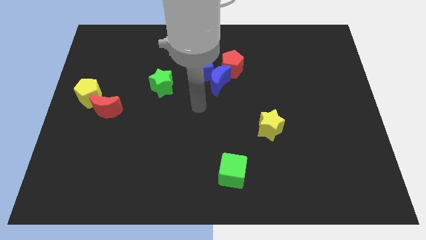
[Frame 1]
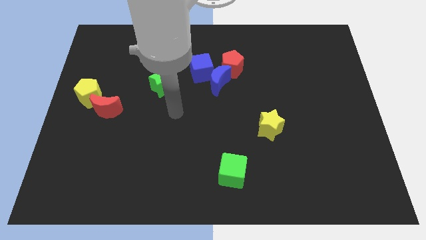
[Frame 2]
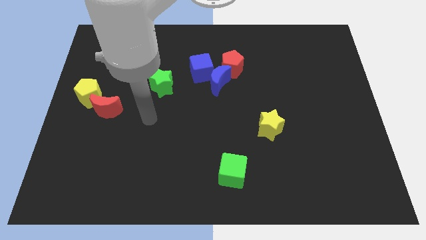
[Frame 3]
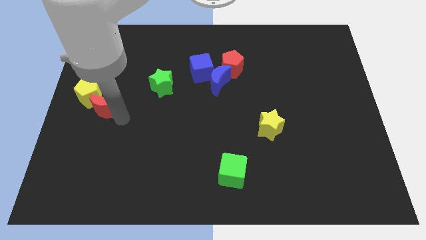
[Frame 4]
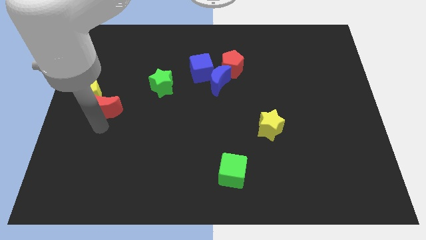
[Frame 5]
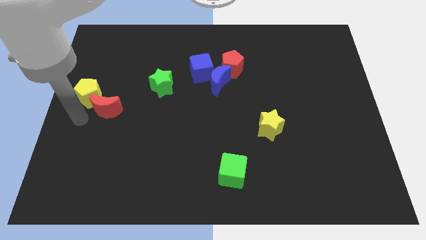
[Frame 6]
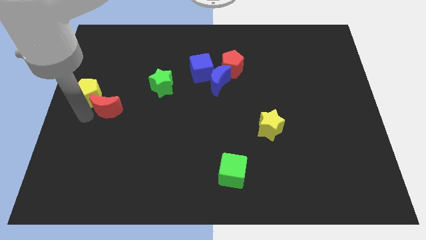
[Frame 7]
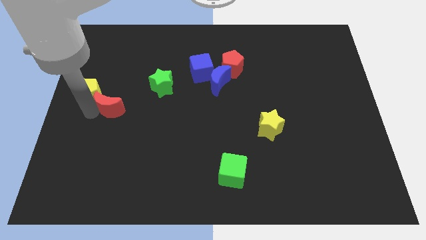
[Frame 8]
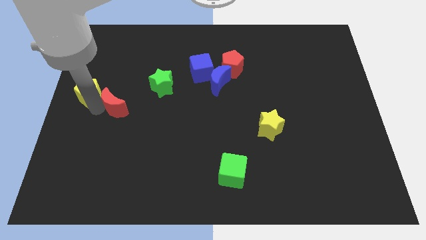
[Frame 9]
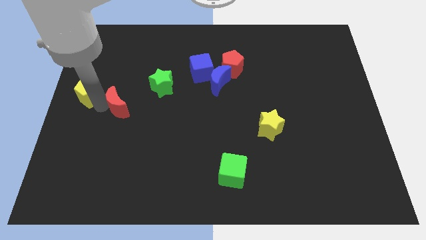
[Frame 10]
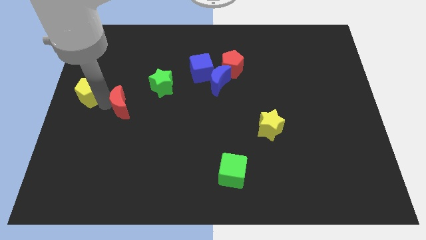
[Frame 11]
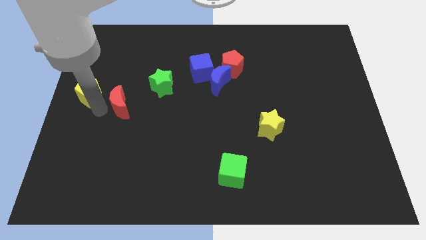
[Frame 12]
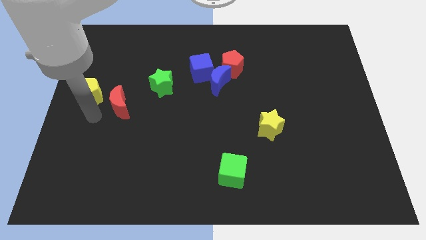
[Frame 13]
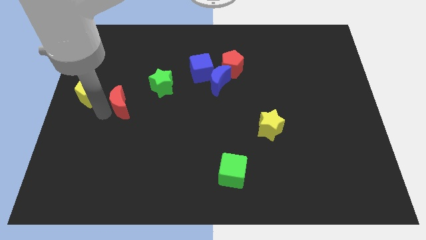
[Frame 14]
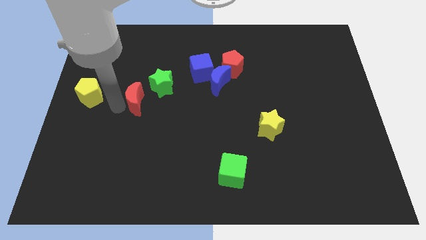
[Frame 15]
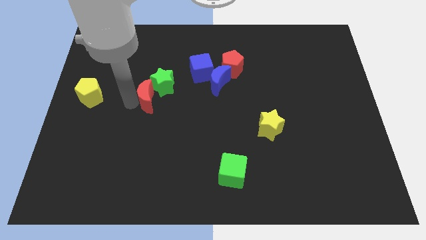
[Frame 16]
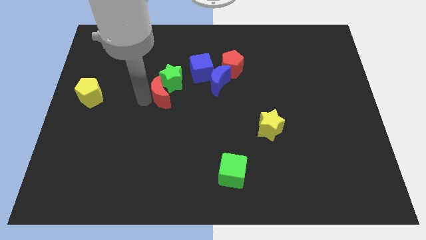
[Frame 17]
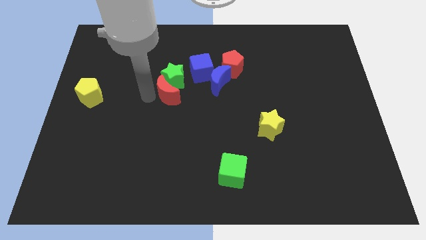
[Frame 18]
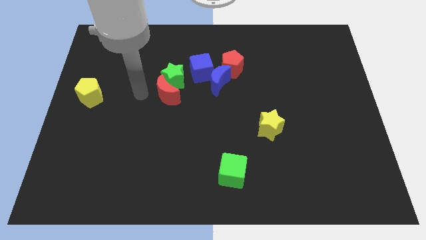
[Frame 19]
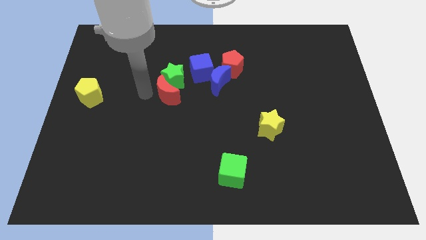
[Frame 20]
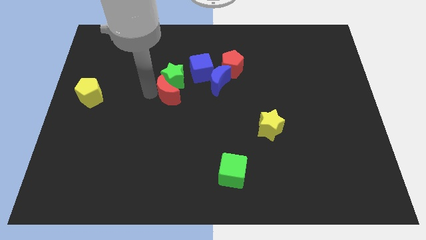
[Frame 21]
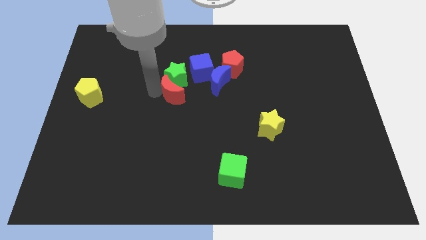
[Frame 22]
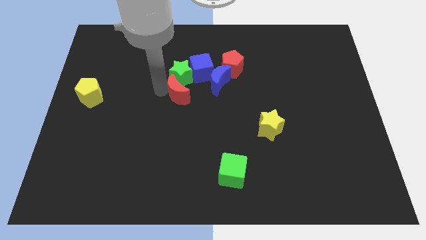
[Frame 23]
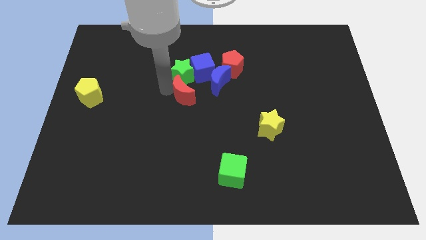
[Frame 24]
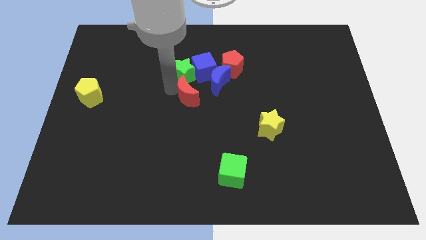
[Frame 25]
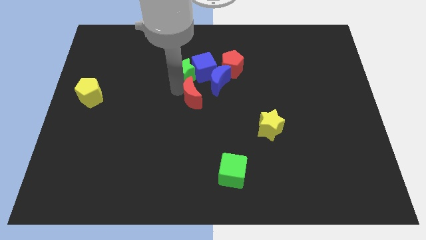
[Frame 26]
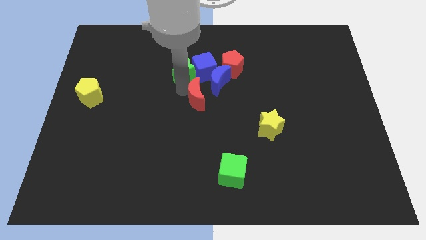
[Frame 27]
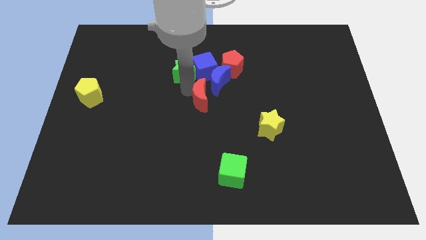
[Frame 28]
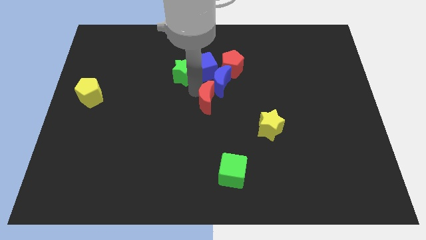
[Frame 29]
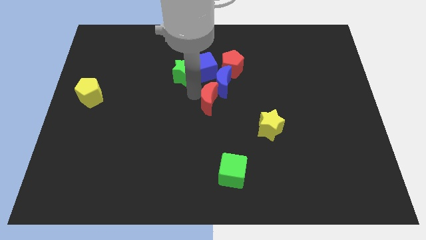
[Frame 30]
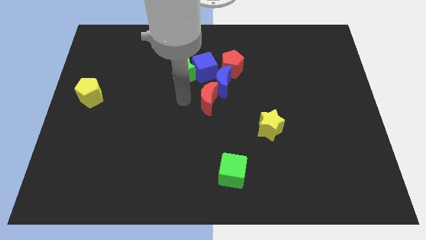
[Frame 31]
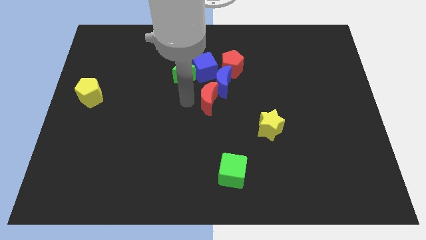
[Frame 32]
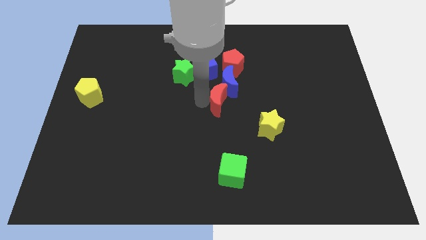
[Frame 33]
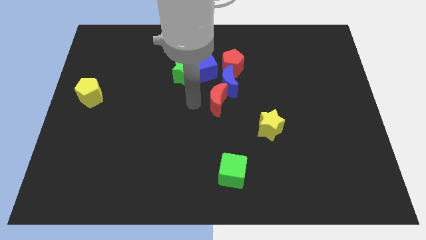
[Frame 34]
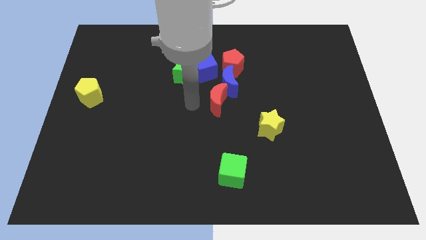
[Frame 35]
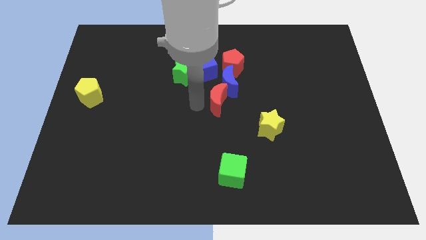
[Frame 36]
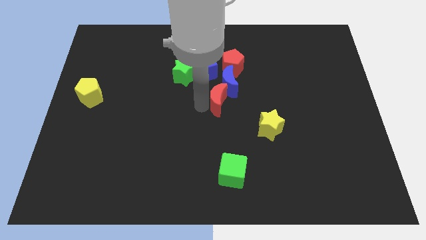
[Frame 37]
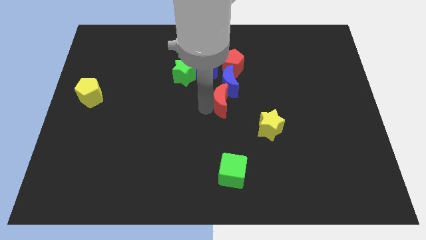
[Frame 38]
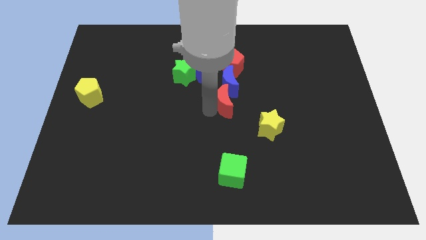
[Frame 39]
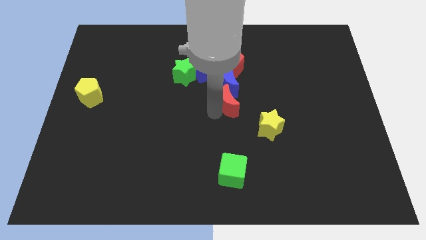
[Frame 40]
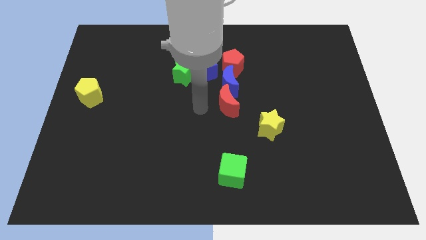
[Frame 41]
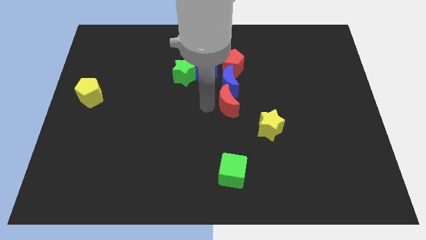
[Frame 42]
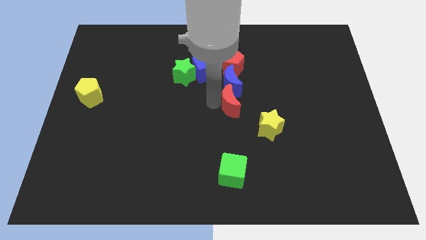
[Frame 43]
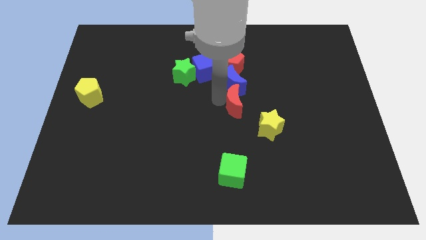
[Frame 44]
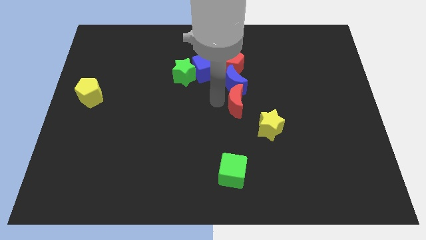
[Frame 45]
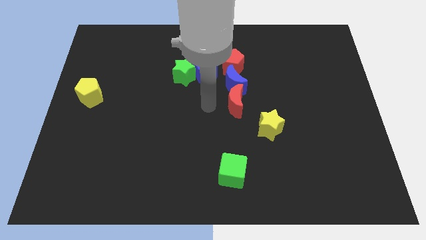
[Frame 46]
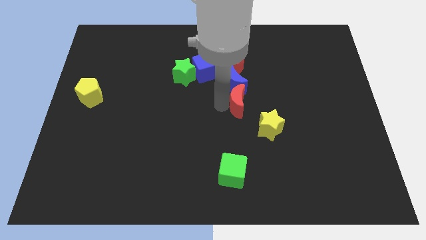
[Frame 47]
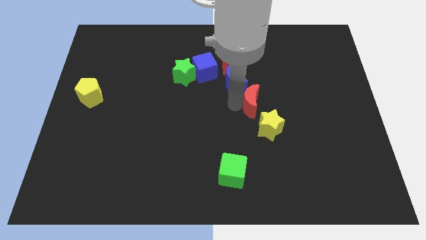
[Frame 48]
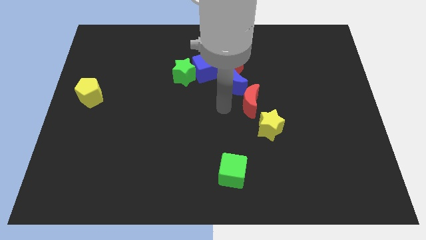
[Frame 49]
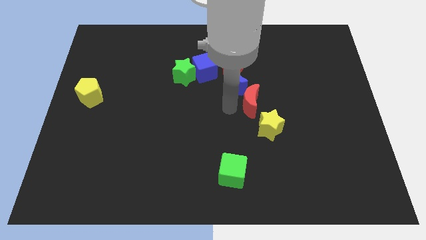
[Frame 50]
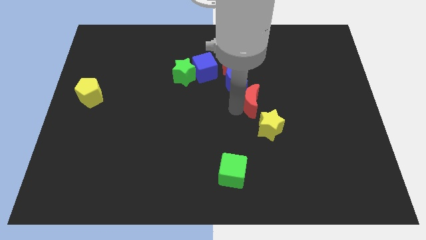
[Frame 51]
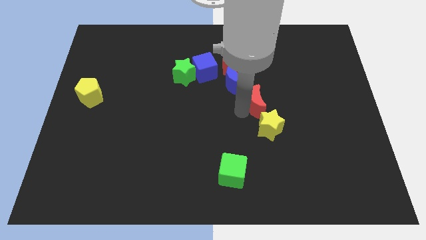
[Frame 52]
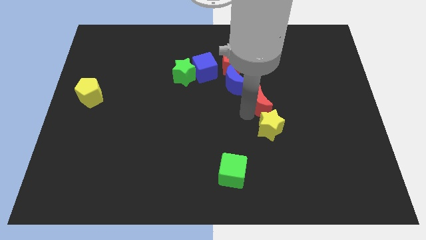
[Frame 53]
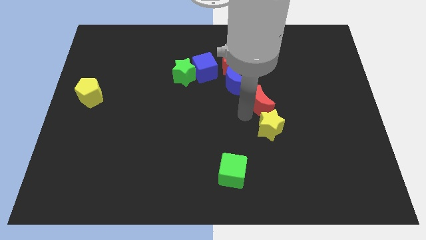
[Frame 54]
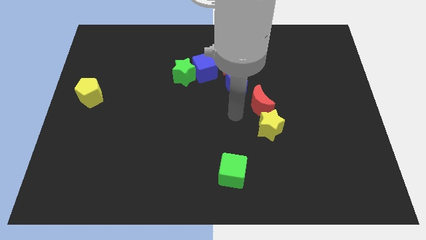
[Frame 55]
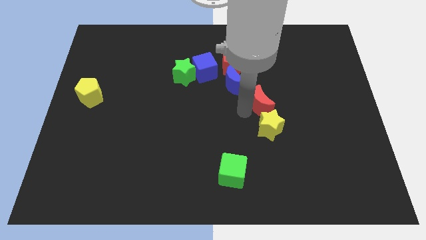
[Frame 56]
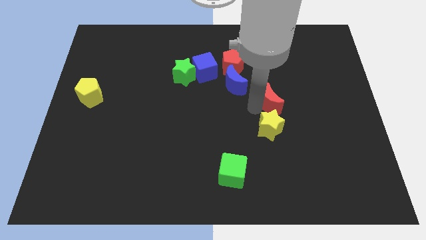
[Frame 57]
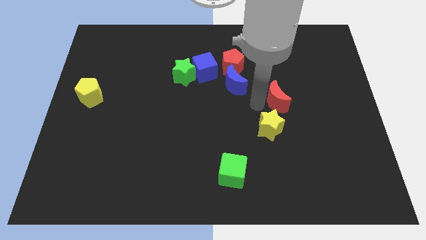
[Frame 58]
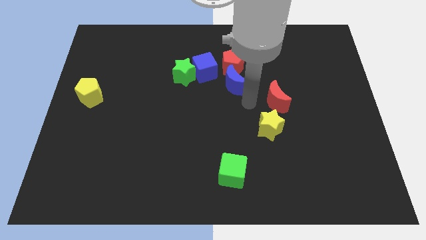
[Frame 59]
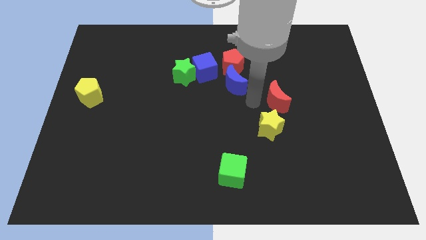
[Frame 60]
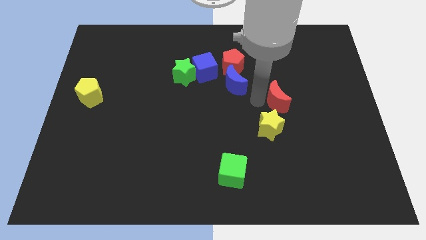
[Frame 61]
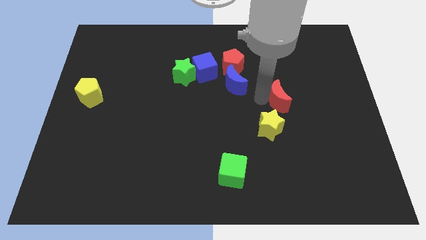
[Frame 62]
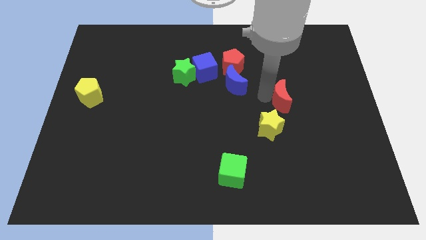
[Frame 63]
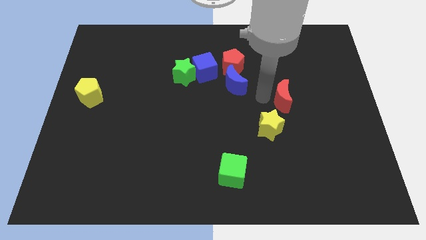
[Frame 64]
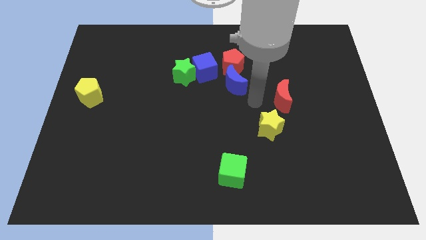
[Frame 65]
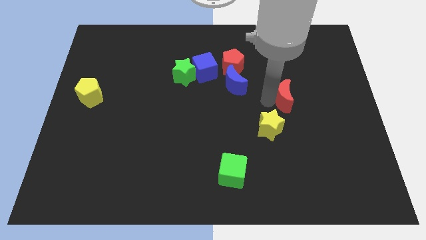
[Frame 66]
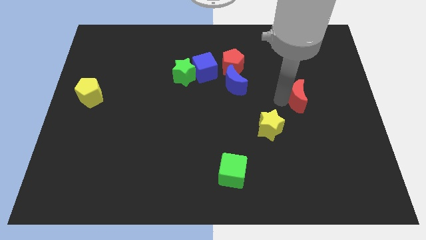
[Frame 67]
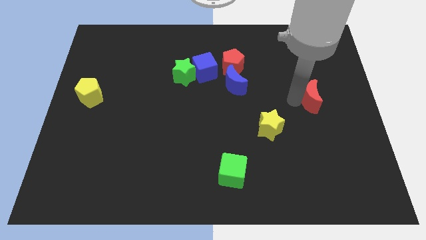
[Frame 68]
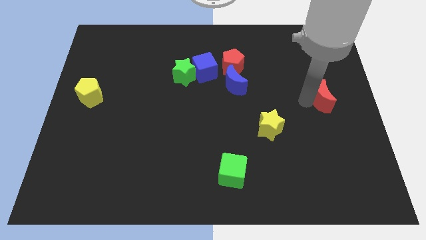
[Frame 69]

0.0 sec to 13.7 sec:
put the red moon to the right side of the board
